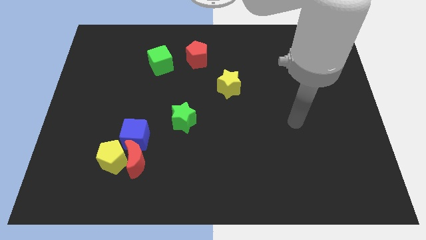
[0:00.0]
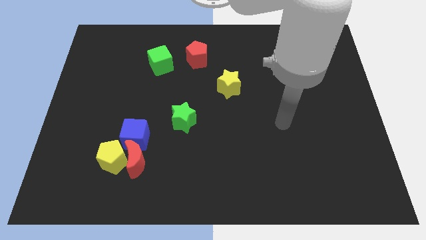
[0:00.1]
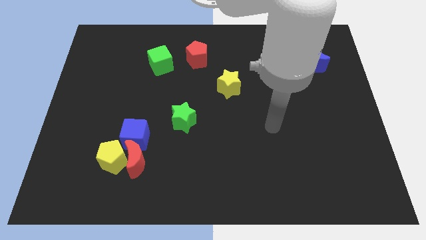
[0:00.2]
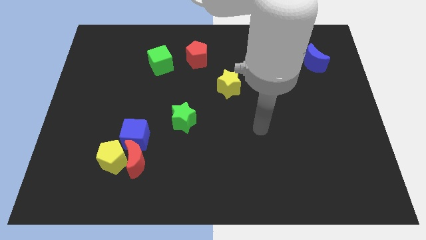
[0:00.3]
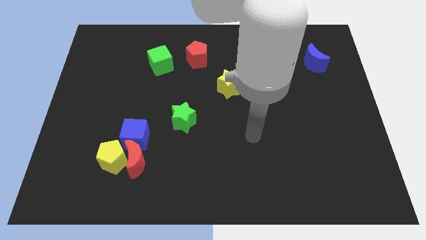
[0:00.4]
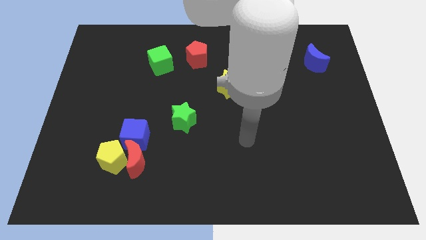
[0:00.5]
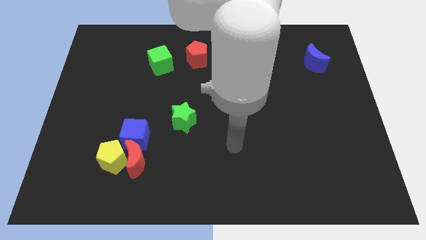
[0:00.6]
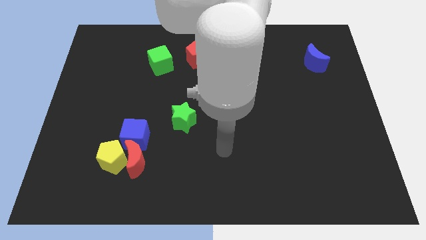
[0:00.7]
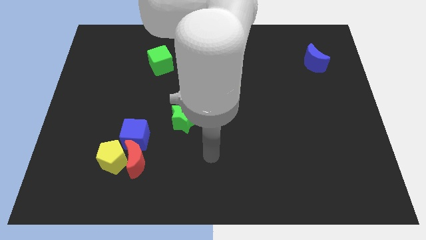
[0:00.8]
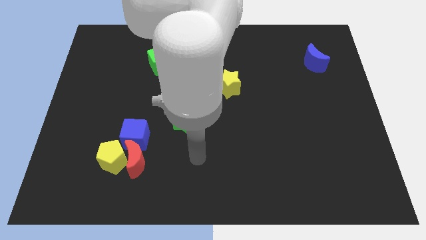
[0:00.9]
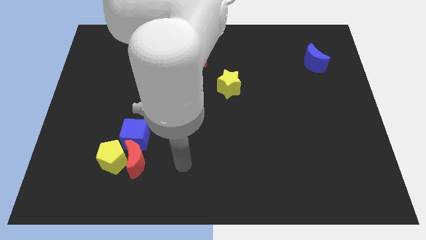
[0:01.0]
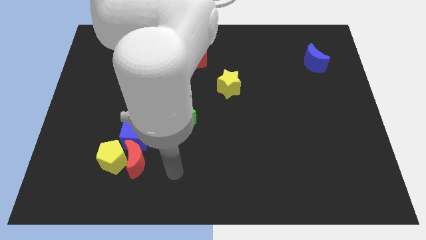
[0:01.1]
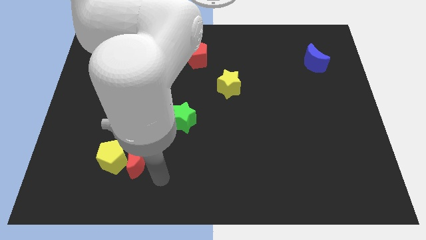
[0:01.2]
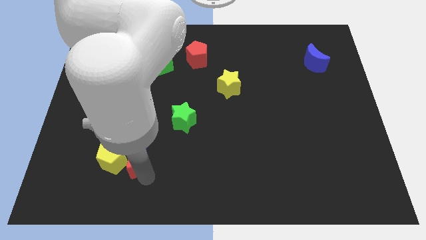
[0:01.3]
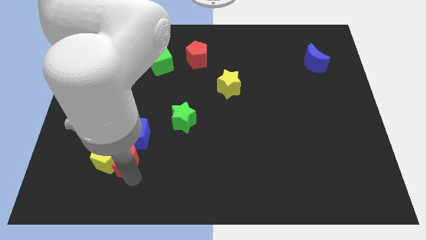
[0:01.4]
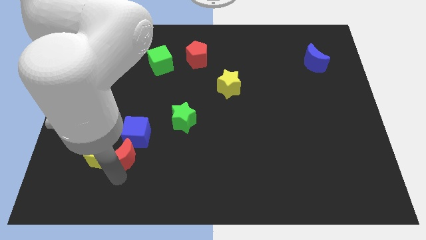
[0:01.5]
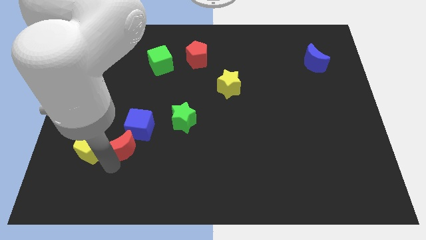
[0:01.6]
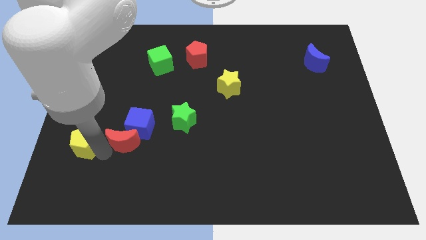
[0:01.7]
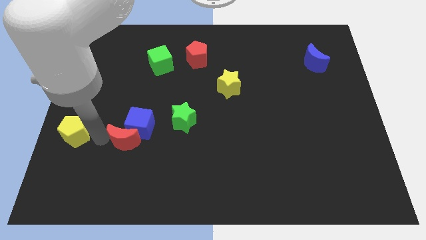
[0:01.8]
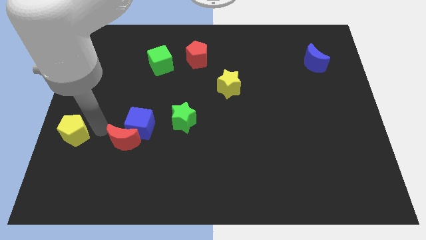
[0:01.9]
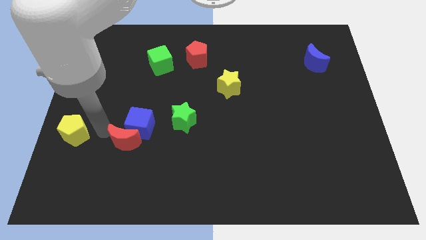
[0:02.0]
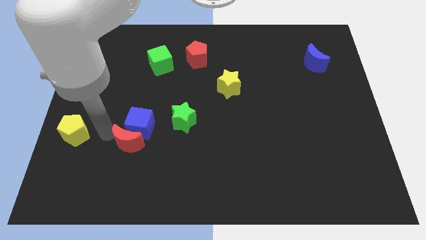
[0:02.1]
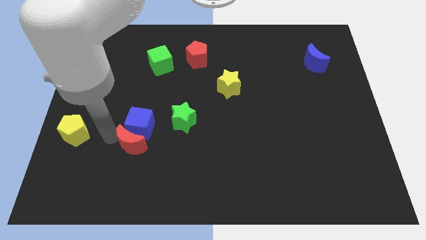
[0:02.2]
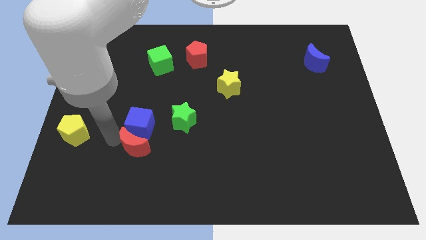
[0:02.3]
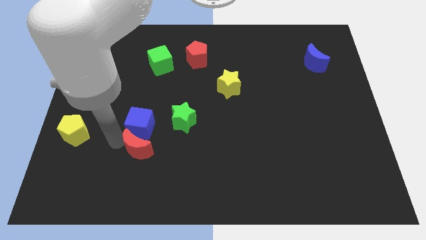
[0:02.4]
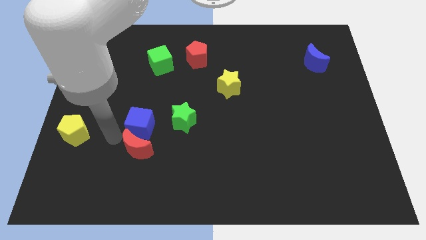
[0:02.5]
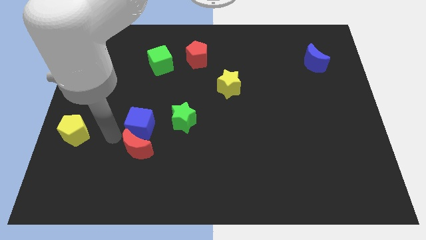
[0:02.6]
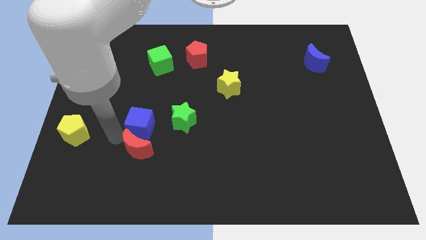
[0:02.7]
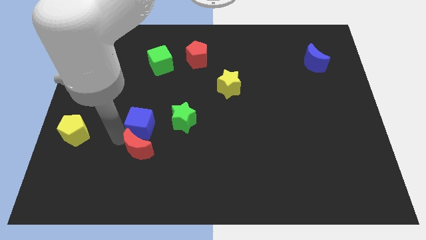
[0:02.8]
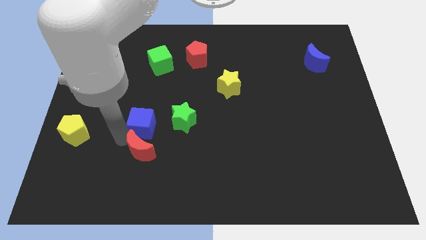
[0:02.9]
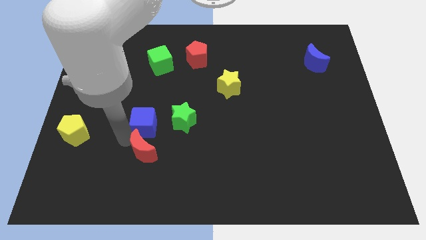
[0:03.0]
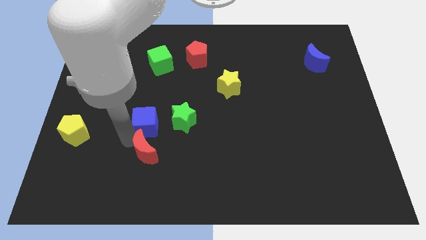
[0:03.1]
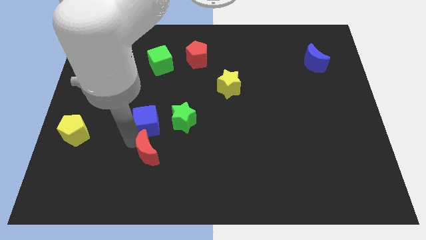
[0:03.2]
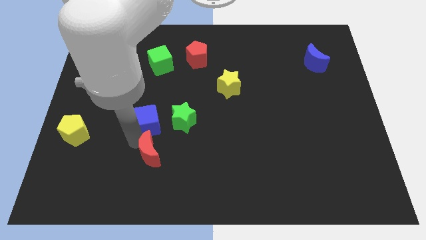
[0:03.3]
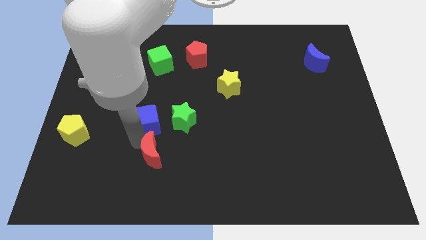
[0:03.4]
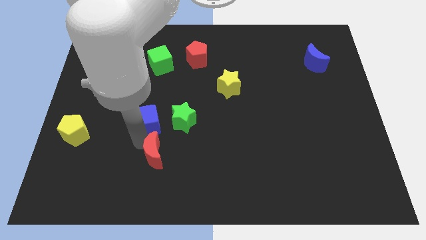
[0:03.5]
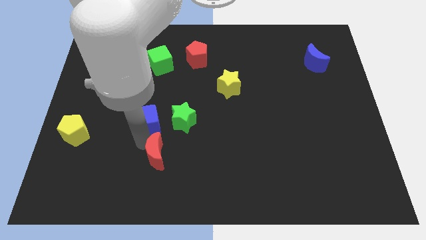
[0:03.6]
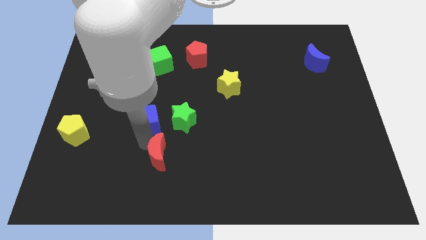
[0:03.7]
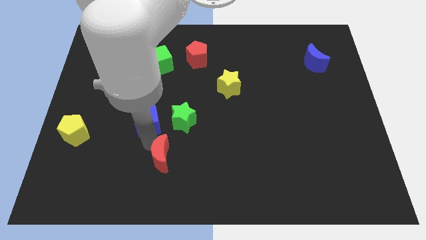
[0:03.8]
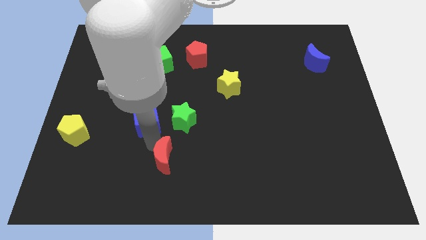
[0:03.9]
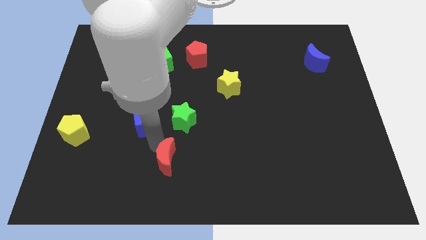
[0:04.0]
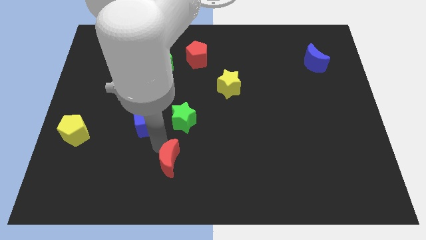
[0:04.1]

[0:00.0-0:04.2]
move the red moon right somewhat

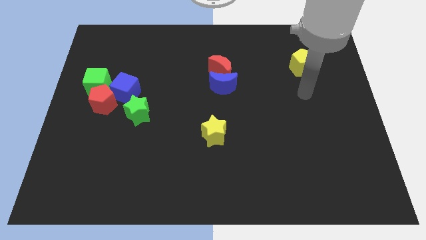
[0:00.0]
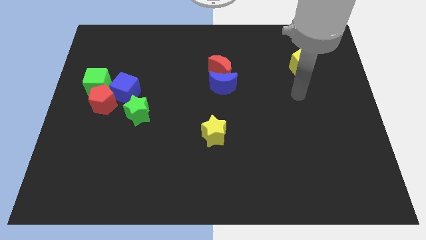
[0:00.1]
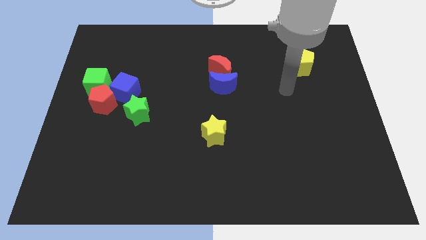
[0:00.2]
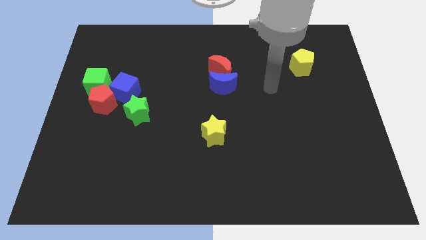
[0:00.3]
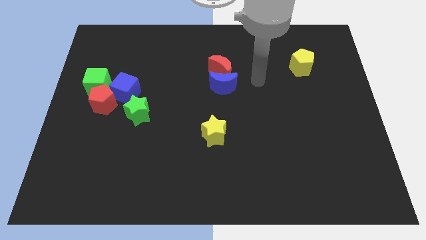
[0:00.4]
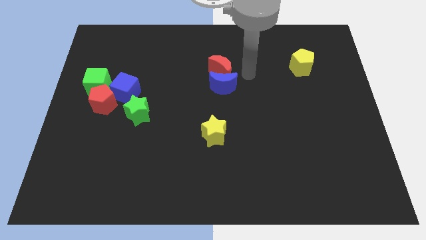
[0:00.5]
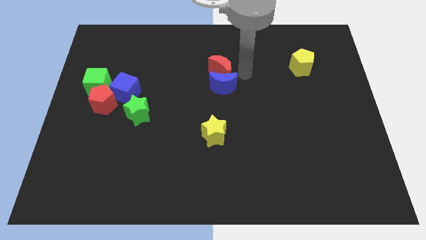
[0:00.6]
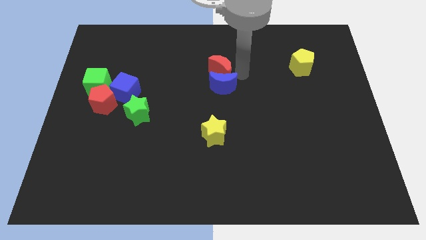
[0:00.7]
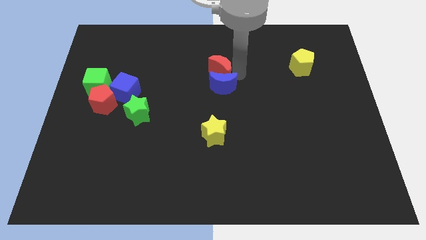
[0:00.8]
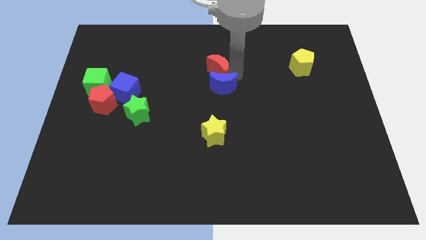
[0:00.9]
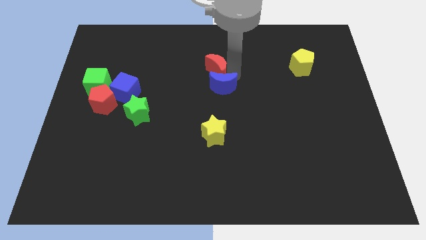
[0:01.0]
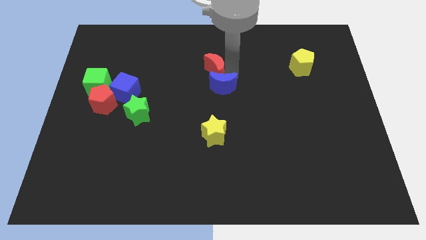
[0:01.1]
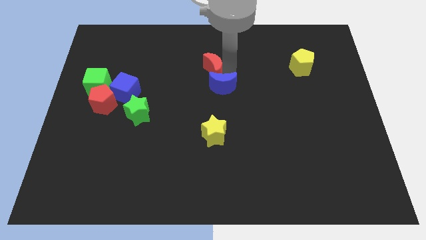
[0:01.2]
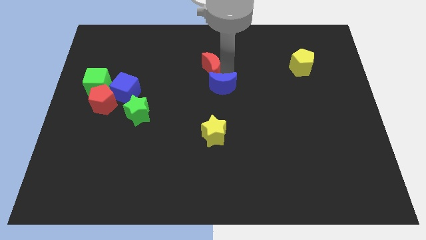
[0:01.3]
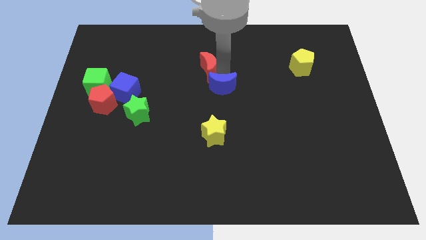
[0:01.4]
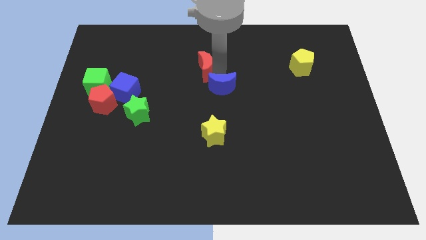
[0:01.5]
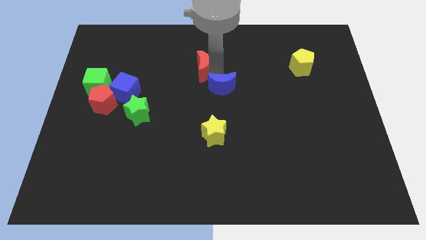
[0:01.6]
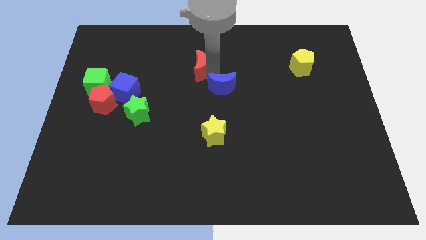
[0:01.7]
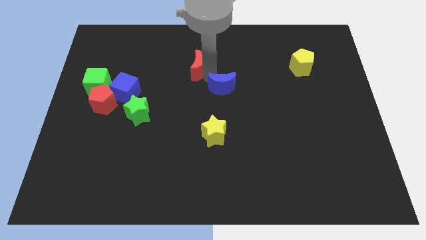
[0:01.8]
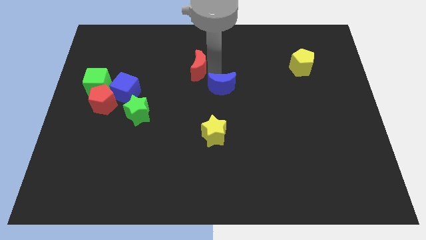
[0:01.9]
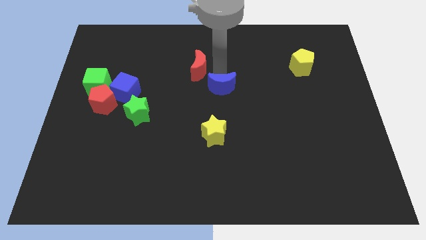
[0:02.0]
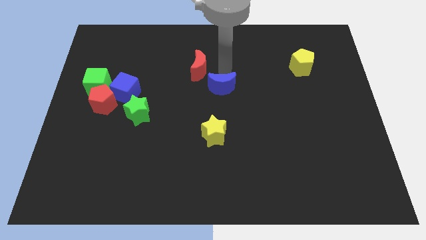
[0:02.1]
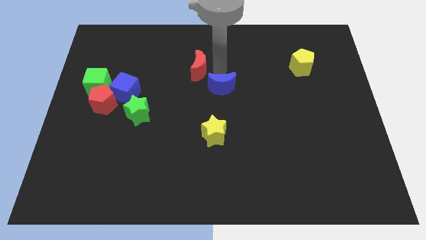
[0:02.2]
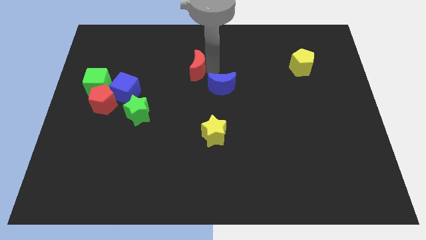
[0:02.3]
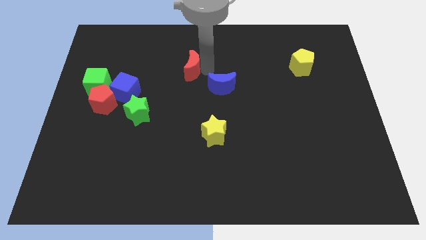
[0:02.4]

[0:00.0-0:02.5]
move the red moon left a bit

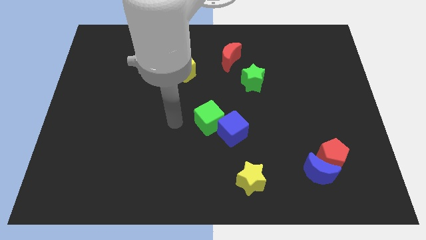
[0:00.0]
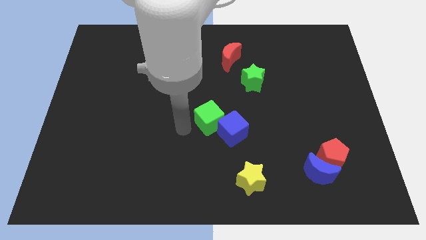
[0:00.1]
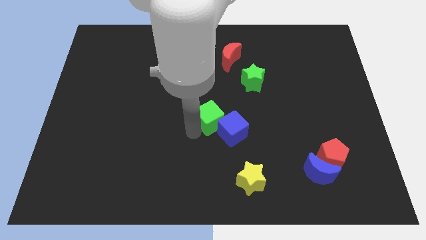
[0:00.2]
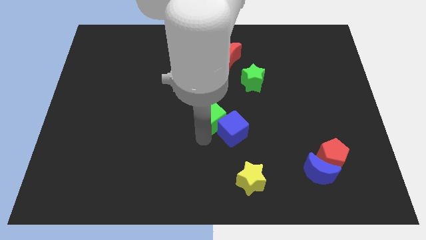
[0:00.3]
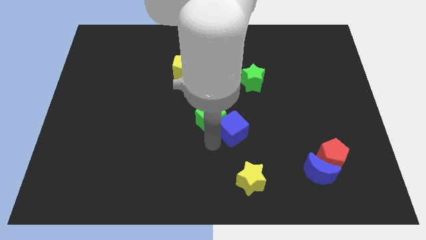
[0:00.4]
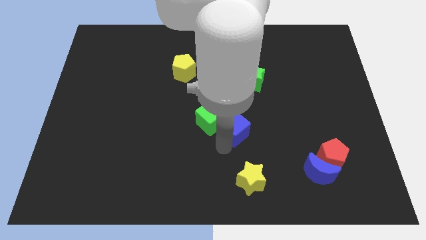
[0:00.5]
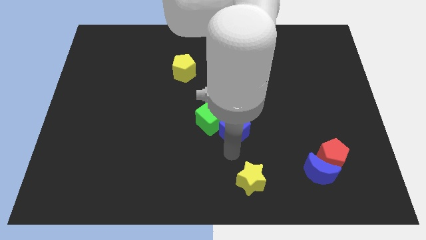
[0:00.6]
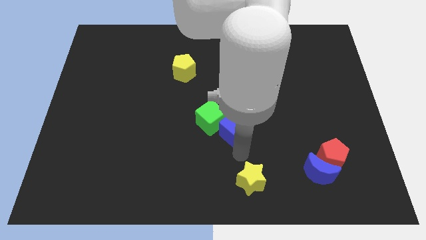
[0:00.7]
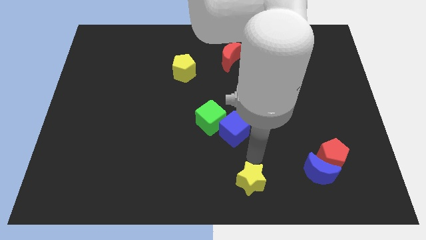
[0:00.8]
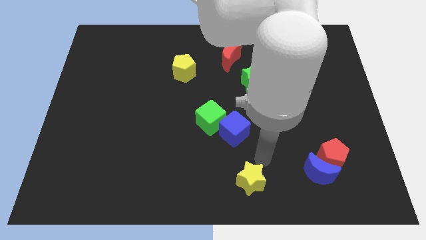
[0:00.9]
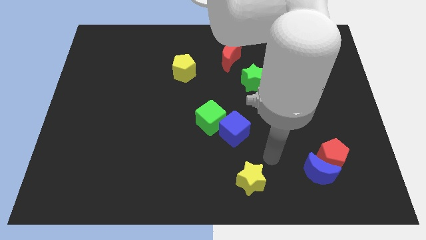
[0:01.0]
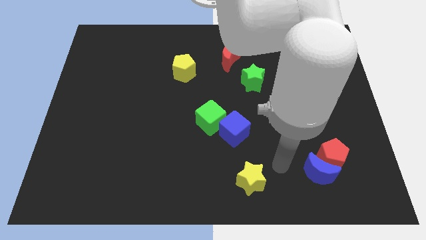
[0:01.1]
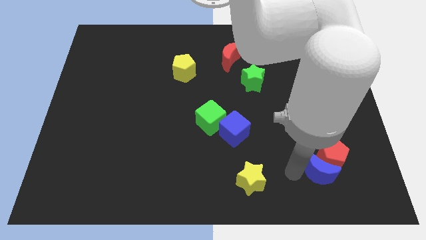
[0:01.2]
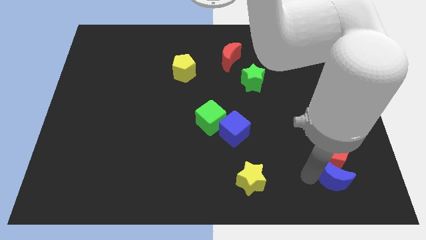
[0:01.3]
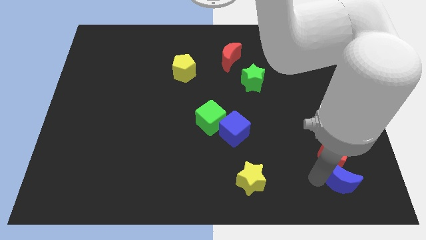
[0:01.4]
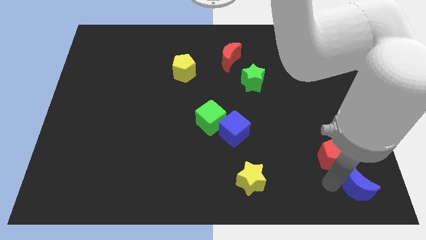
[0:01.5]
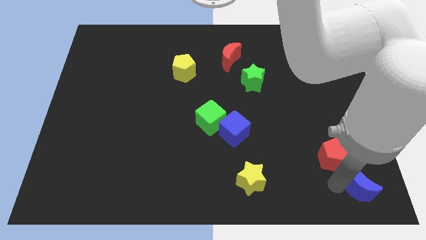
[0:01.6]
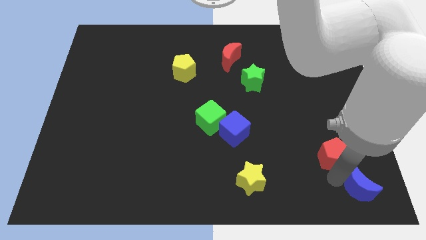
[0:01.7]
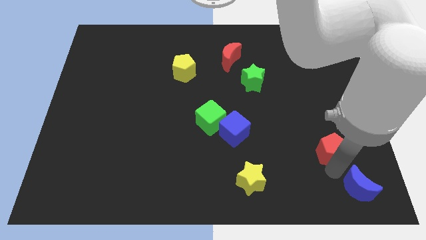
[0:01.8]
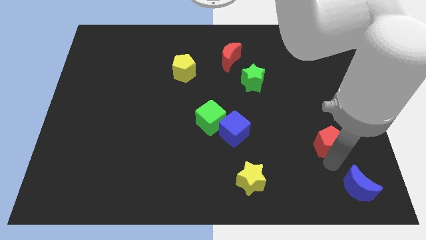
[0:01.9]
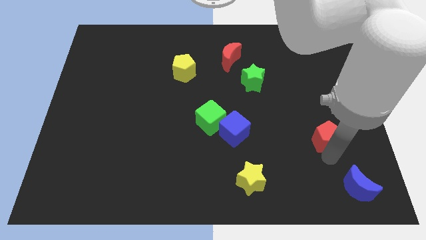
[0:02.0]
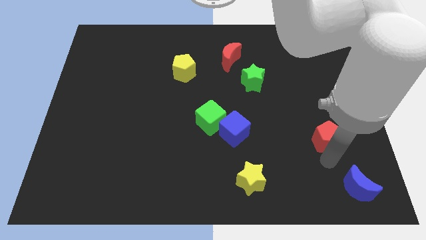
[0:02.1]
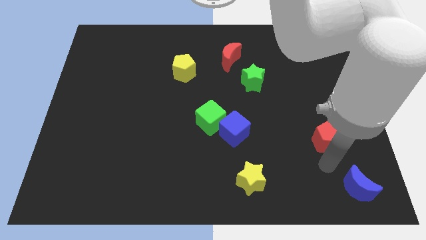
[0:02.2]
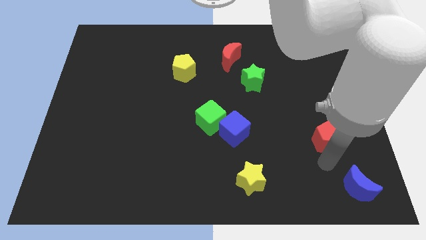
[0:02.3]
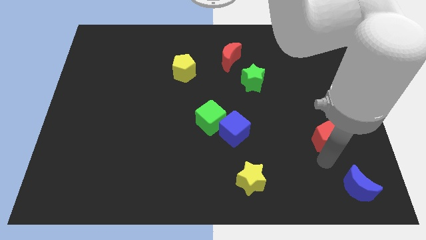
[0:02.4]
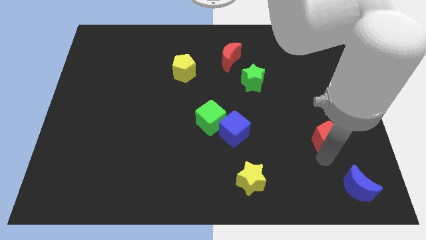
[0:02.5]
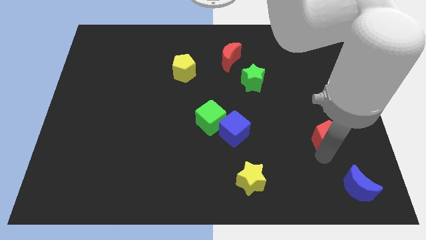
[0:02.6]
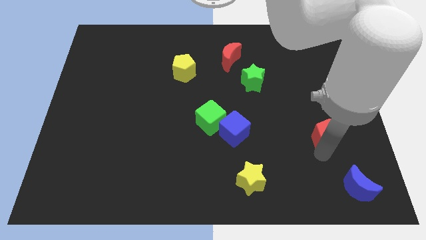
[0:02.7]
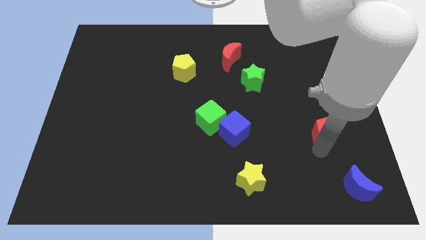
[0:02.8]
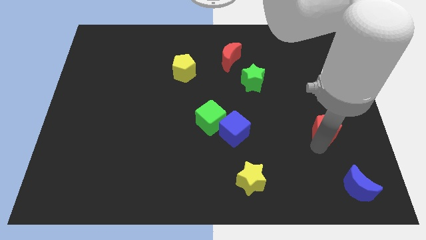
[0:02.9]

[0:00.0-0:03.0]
push the red pentagon a little bit upwards
